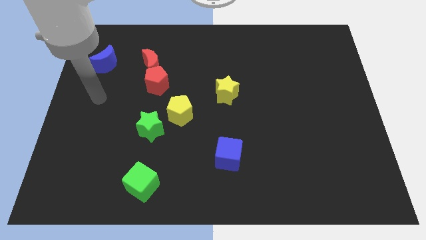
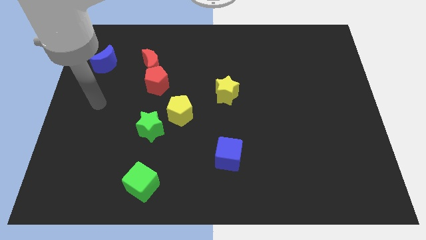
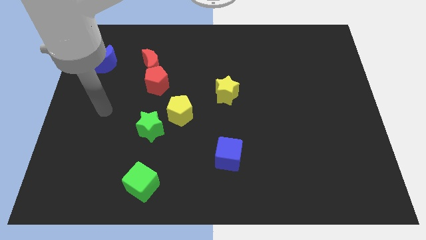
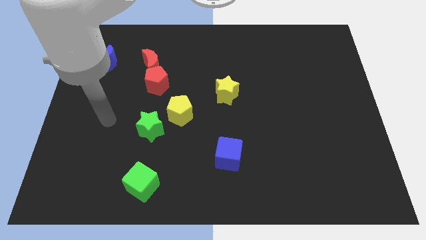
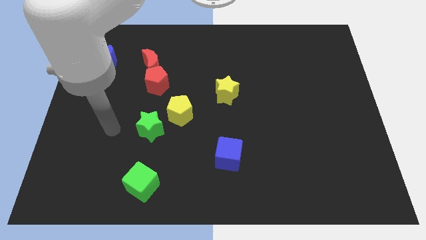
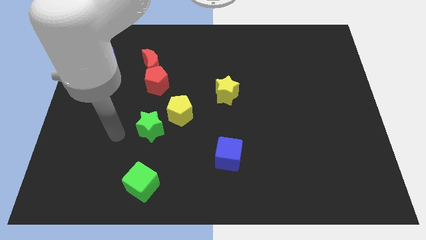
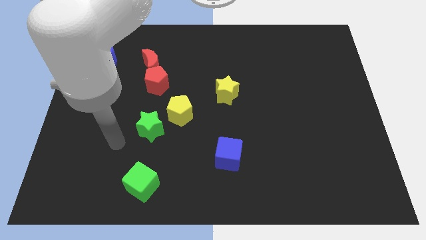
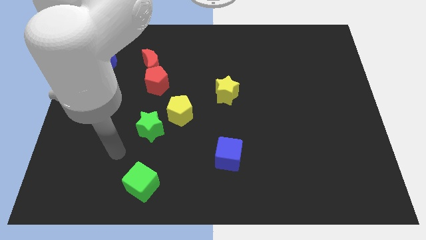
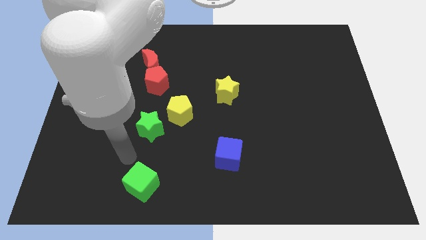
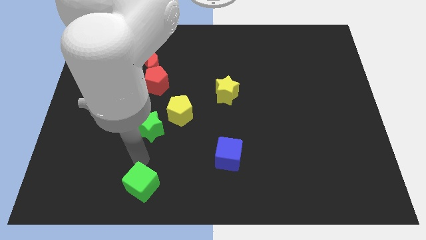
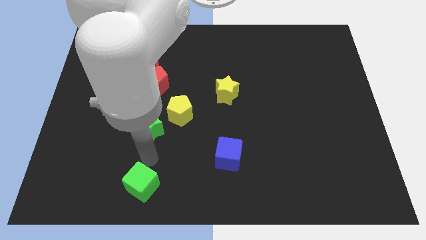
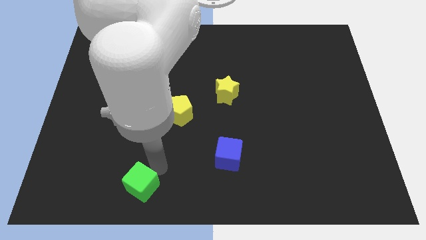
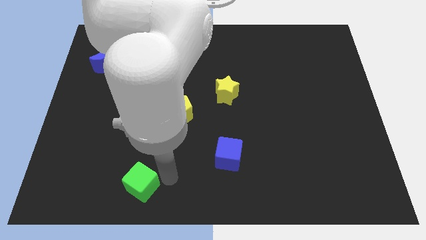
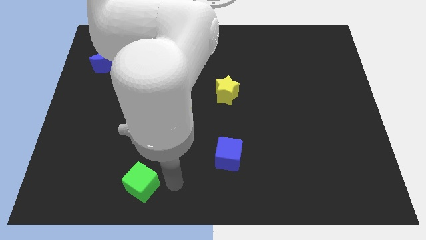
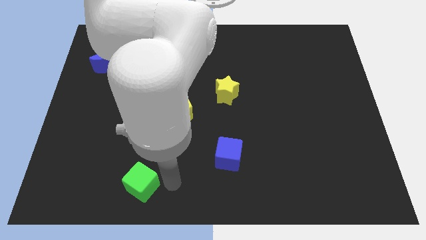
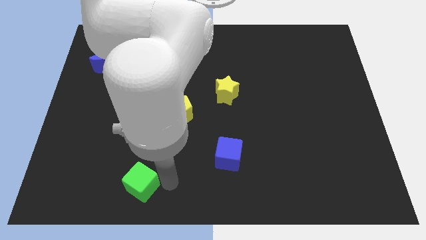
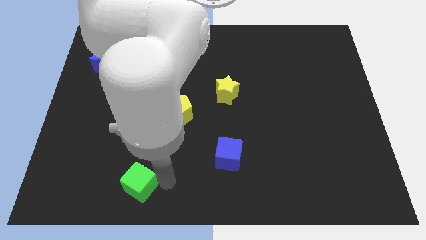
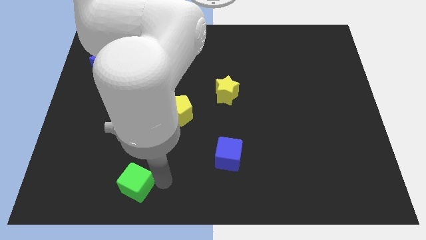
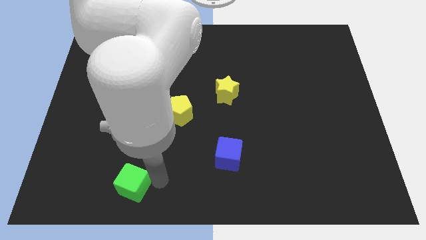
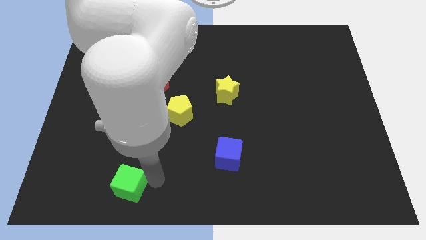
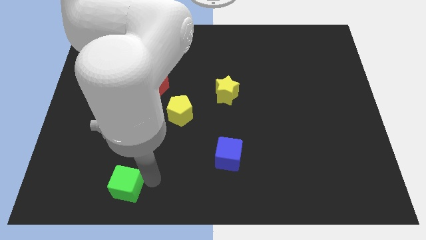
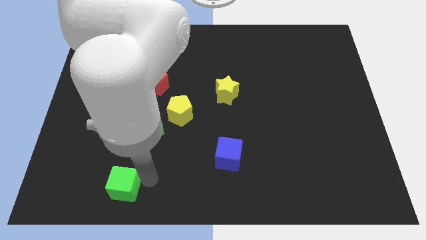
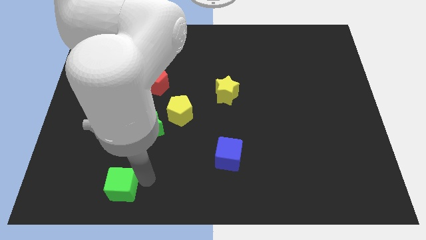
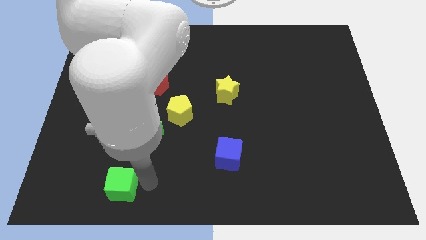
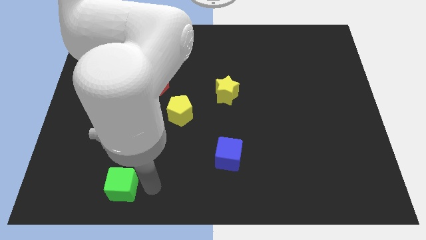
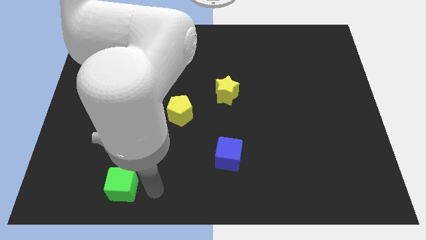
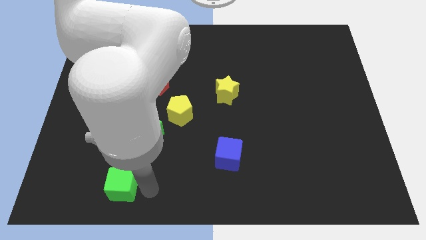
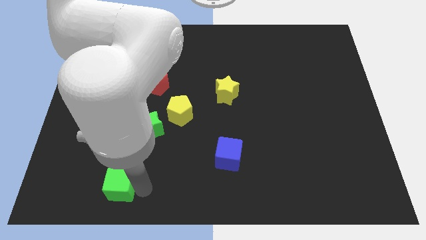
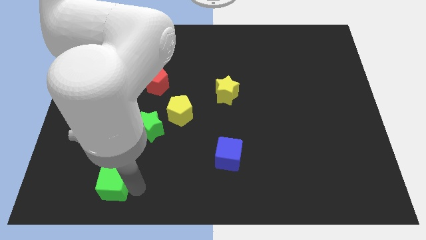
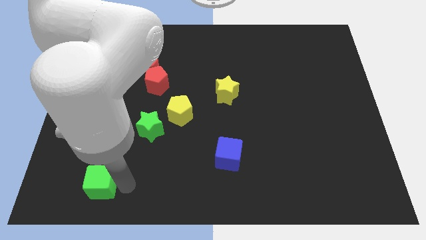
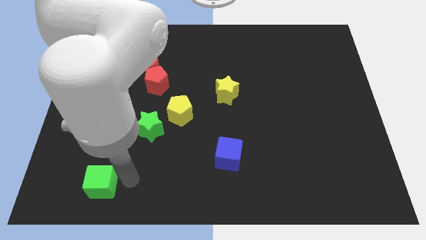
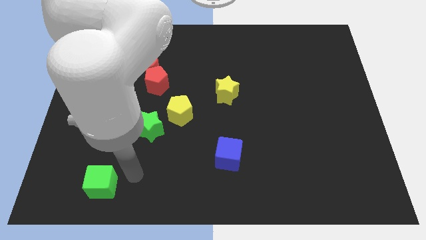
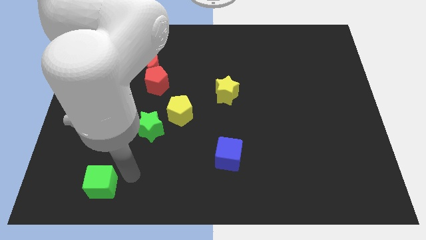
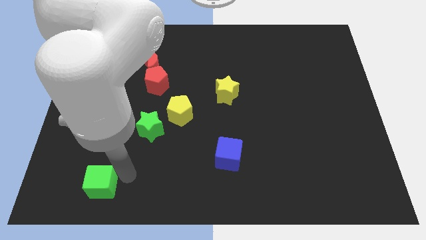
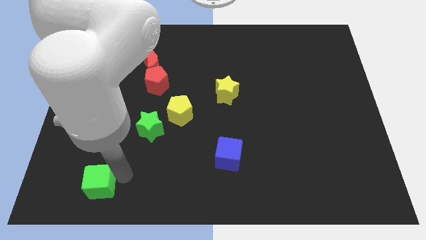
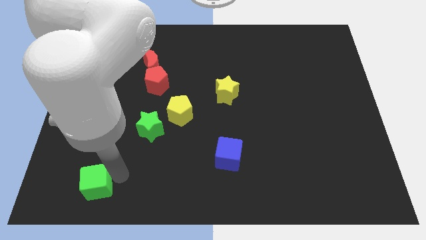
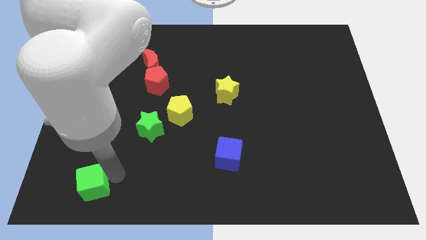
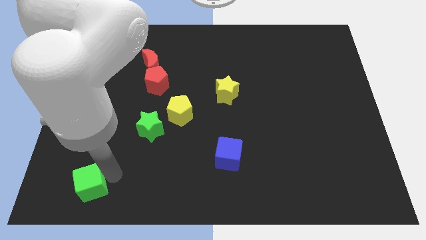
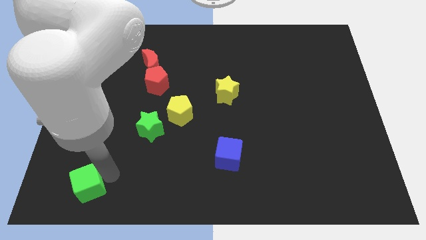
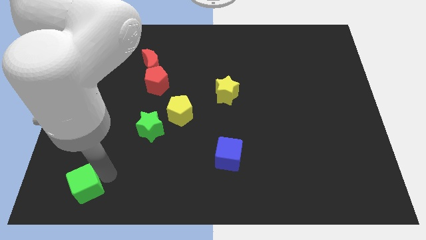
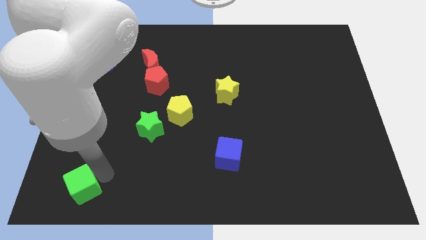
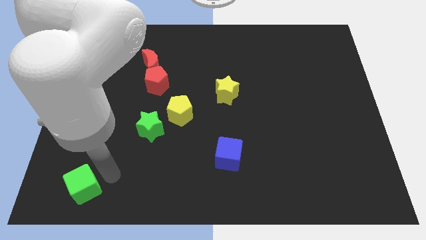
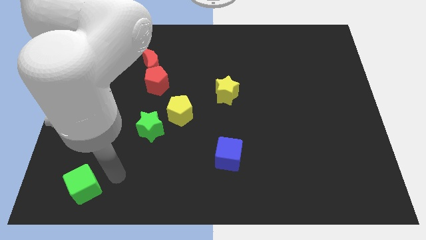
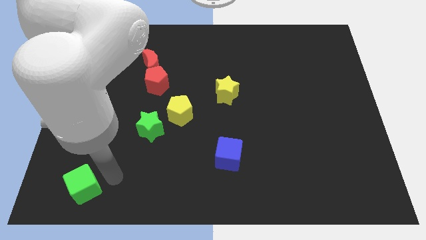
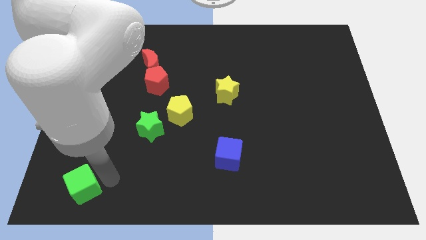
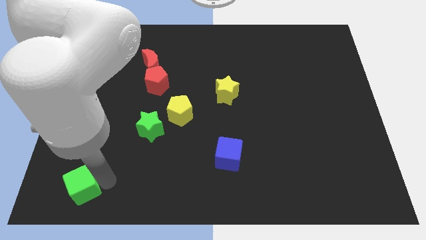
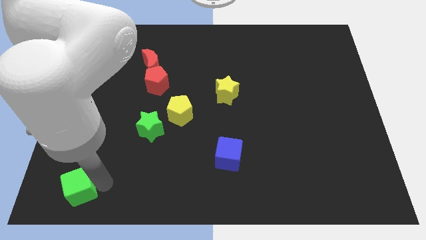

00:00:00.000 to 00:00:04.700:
push the green cube to the bottom left corner

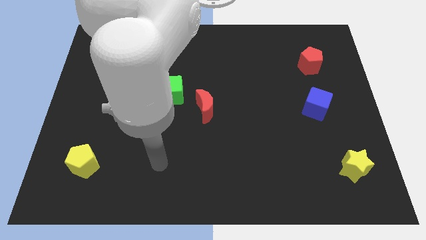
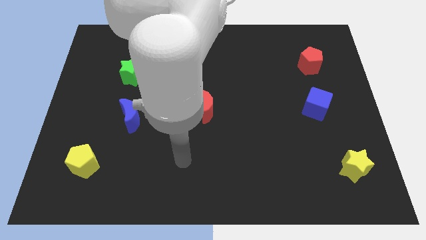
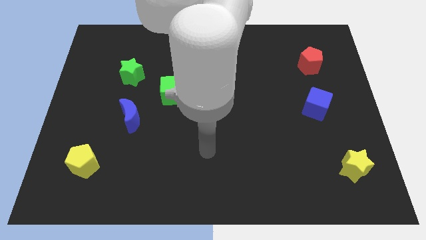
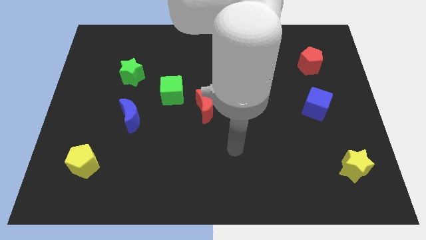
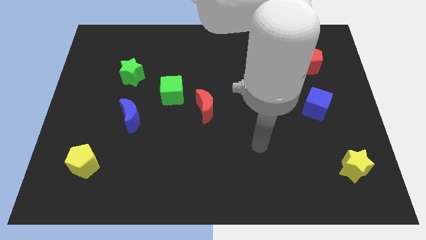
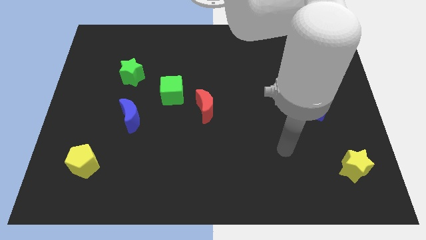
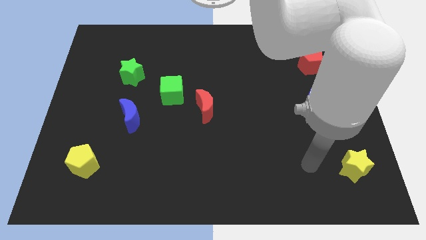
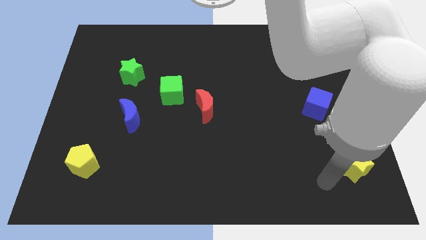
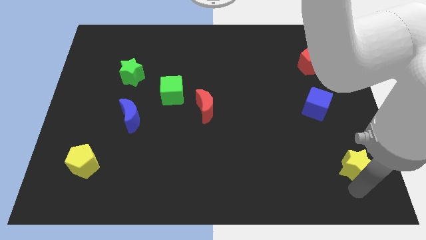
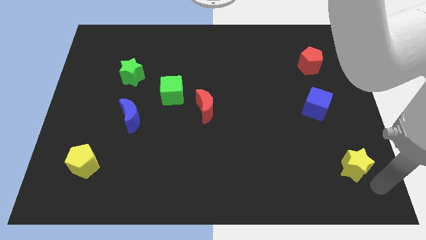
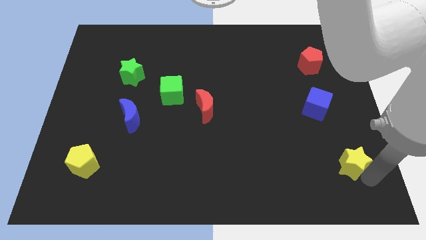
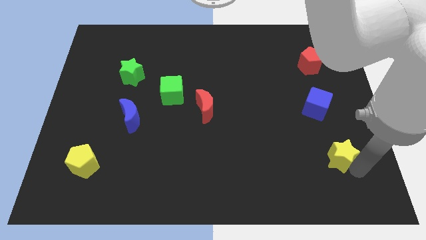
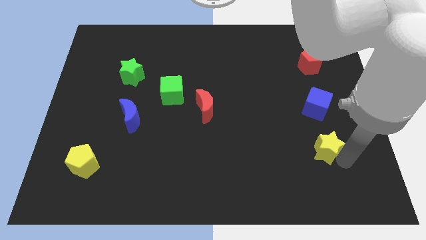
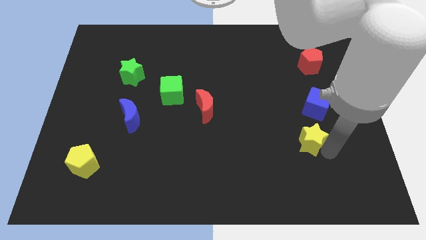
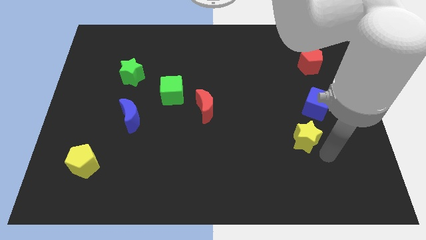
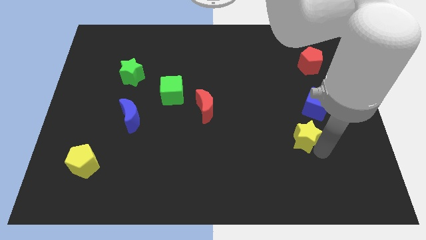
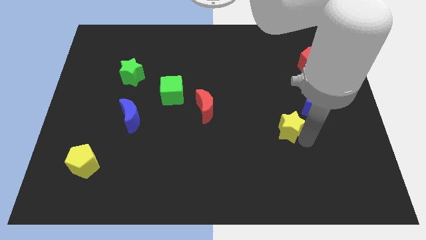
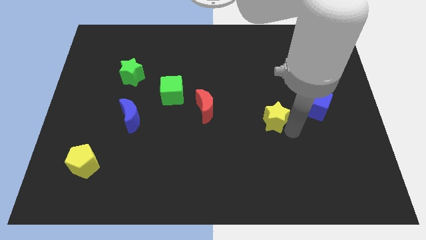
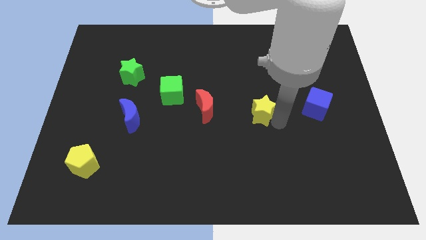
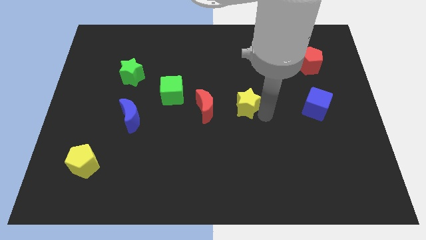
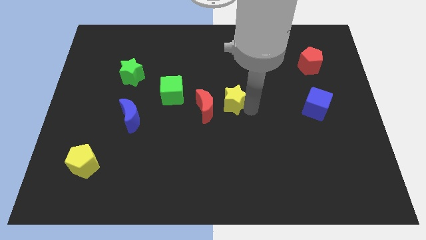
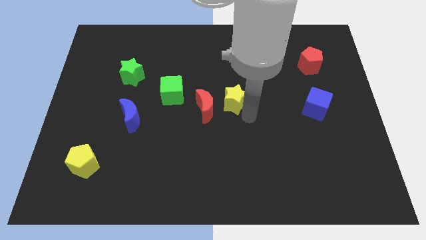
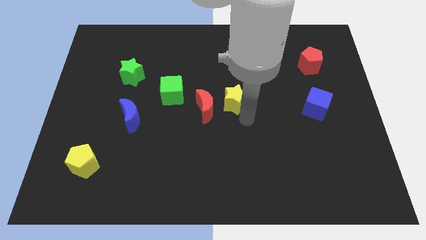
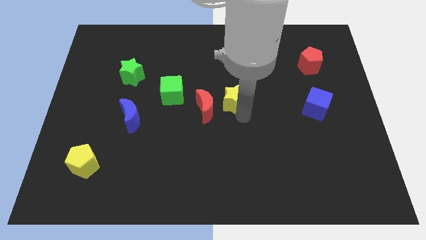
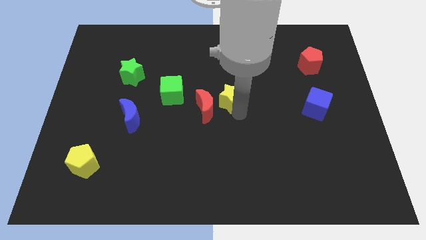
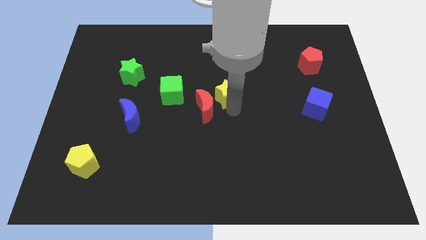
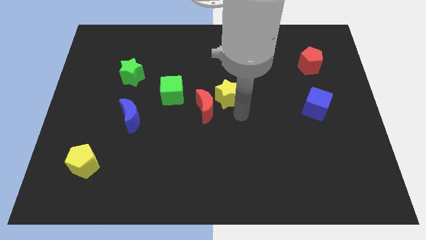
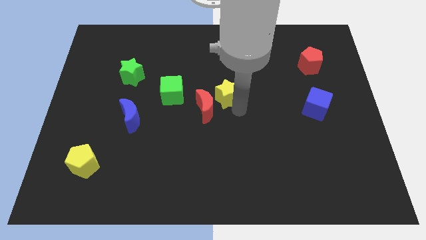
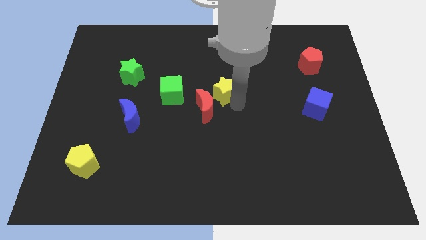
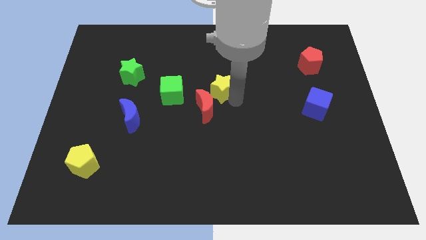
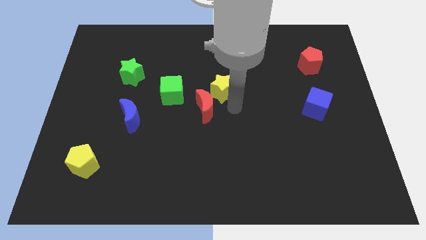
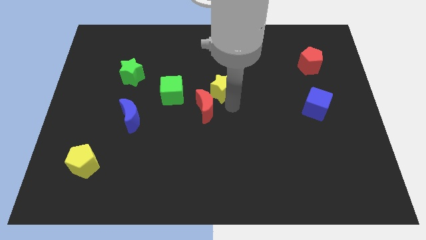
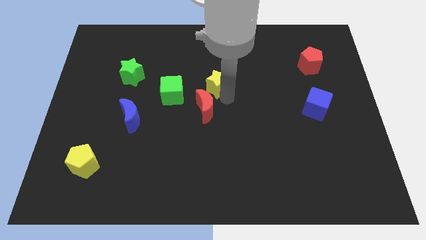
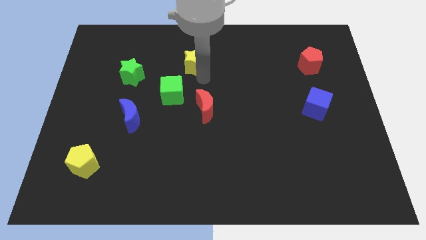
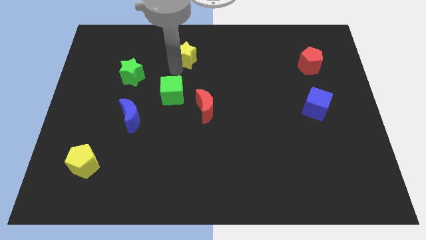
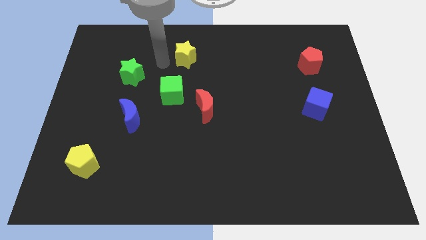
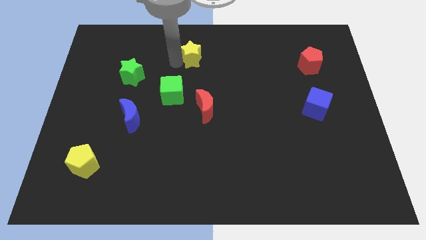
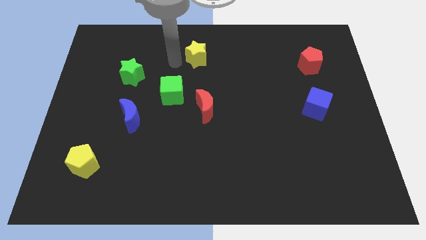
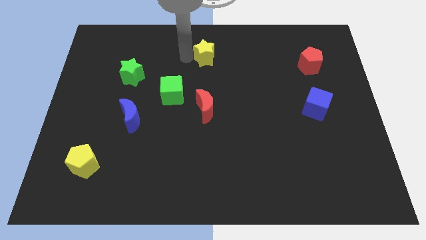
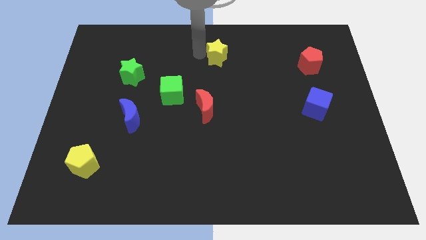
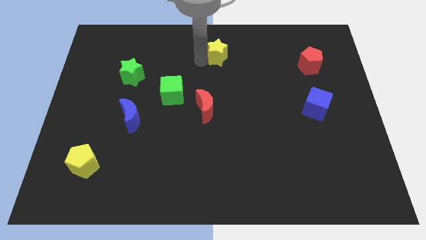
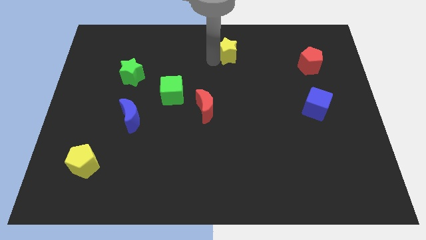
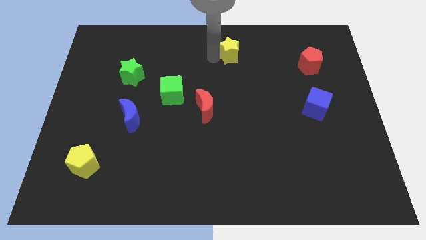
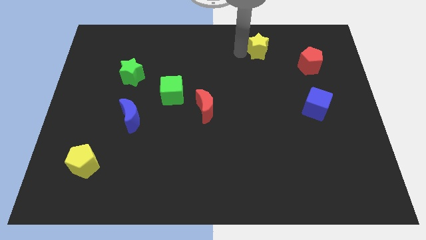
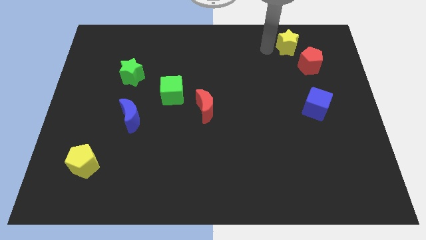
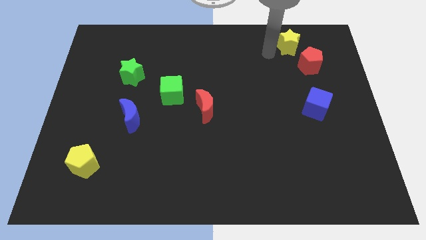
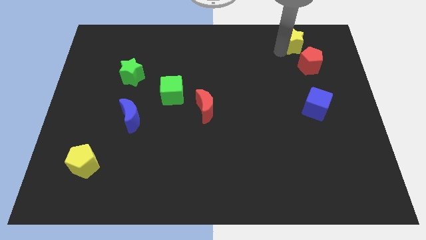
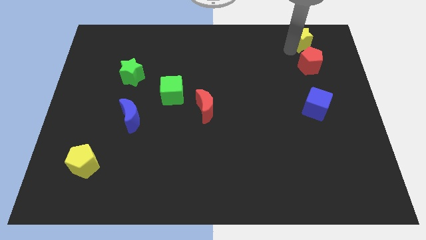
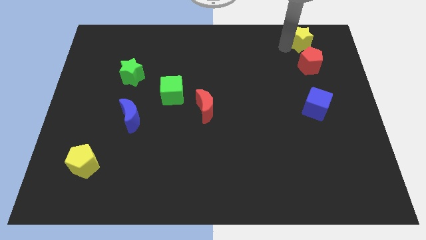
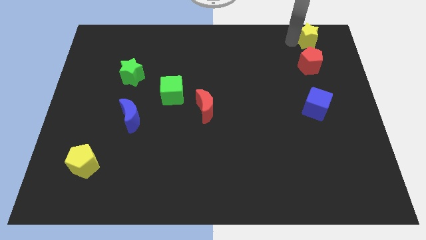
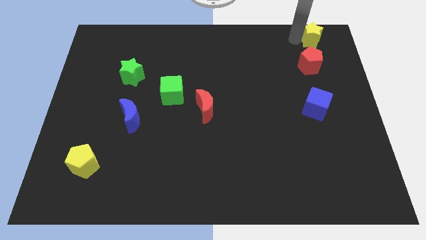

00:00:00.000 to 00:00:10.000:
slide the yellow star to the upper right corner
